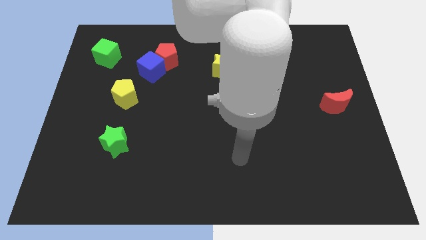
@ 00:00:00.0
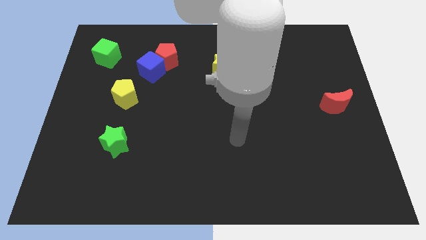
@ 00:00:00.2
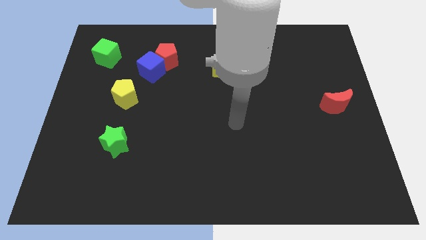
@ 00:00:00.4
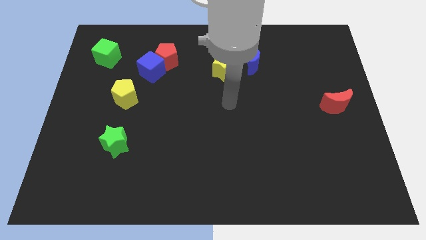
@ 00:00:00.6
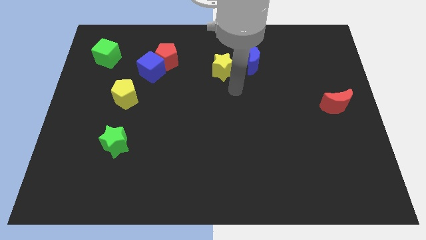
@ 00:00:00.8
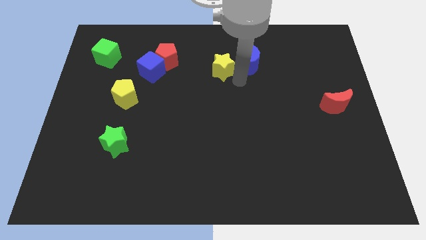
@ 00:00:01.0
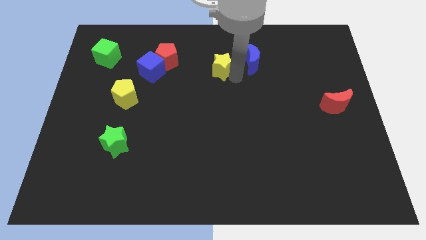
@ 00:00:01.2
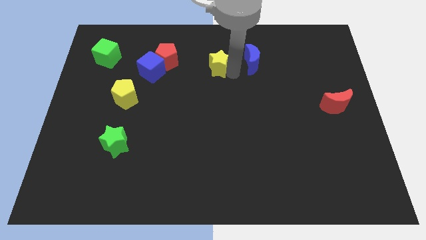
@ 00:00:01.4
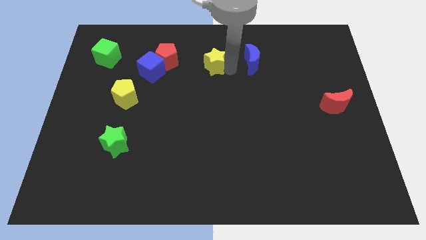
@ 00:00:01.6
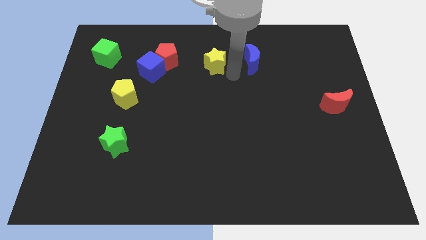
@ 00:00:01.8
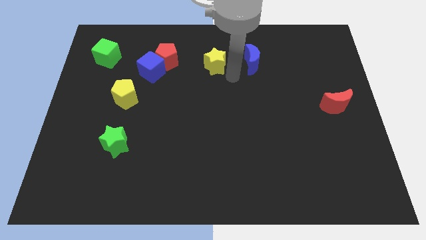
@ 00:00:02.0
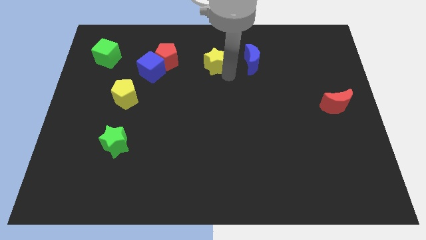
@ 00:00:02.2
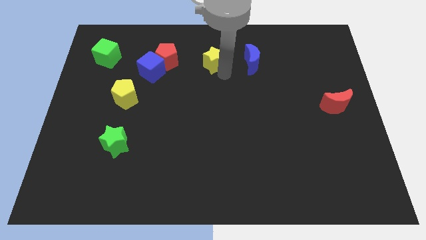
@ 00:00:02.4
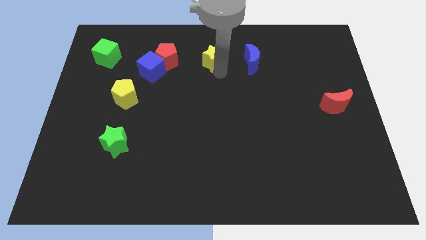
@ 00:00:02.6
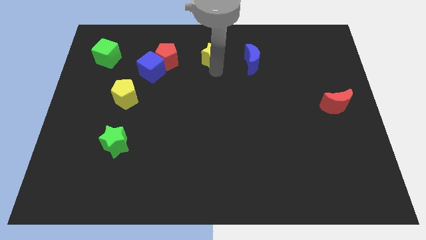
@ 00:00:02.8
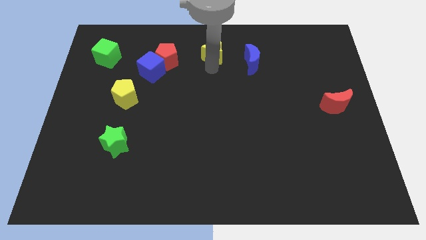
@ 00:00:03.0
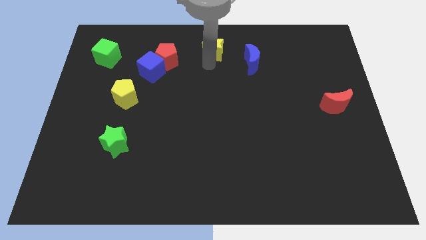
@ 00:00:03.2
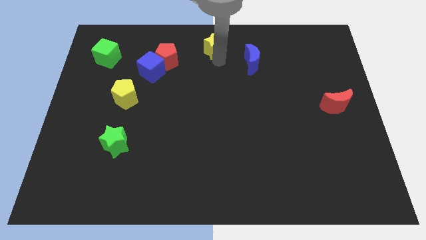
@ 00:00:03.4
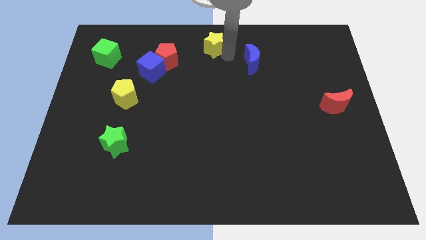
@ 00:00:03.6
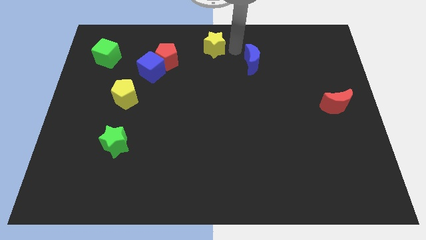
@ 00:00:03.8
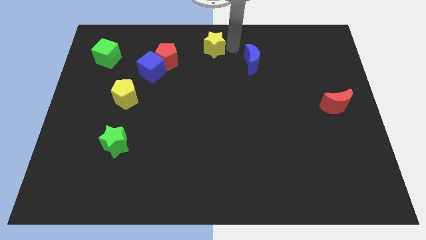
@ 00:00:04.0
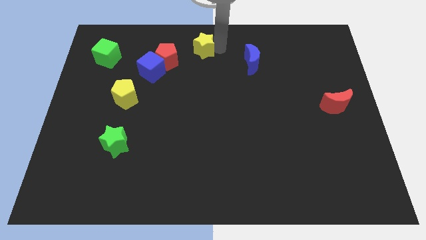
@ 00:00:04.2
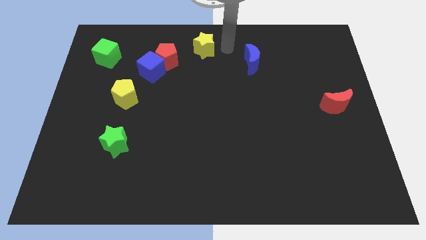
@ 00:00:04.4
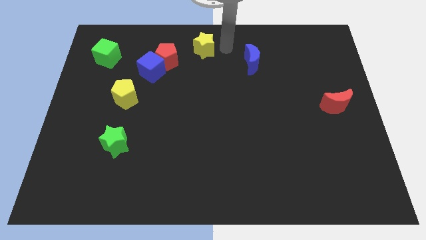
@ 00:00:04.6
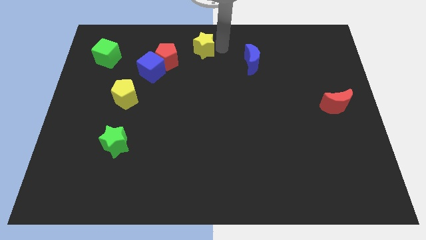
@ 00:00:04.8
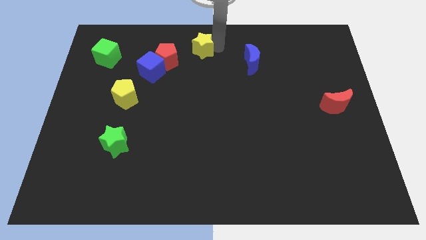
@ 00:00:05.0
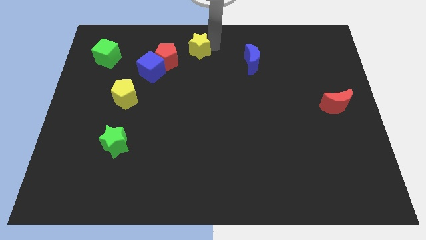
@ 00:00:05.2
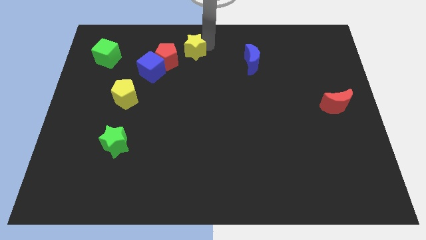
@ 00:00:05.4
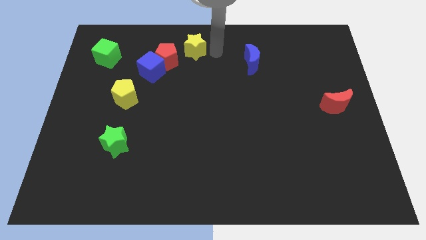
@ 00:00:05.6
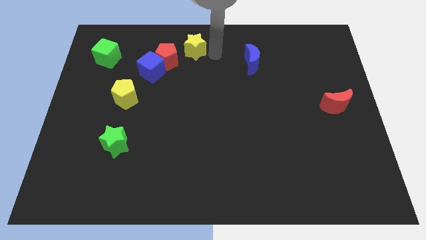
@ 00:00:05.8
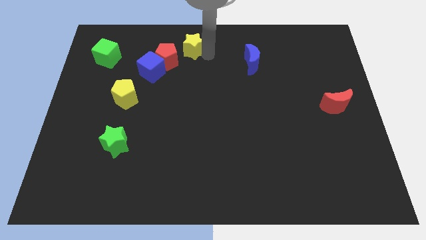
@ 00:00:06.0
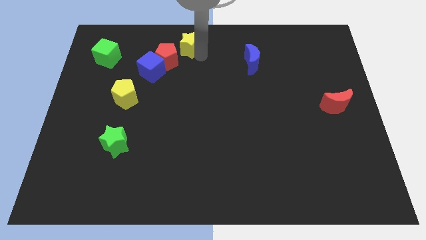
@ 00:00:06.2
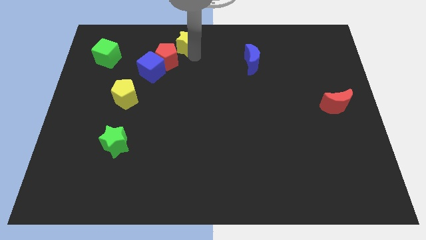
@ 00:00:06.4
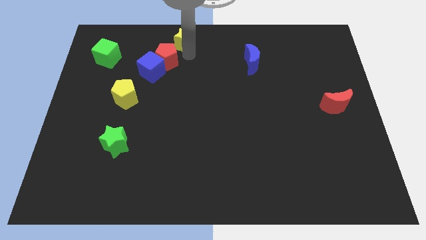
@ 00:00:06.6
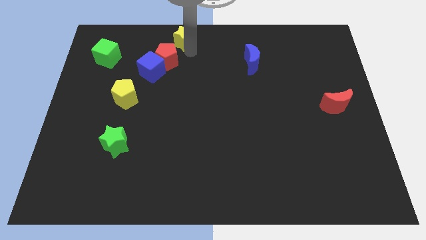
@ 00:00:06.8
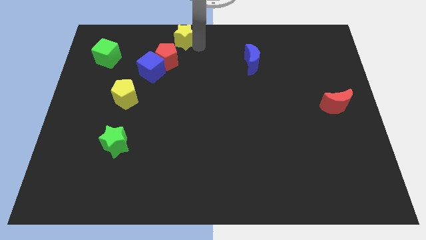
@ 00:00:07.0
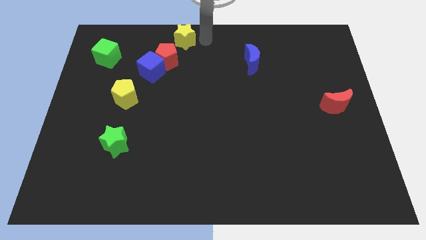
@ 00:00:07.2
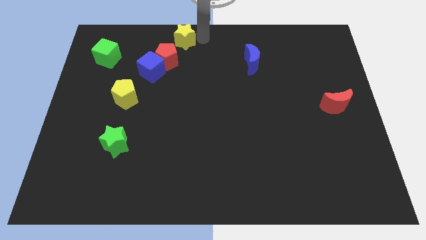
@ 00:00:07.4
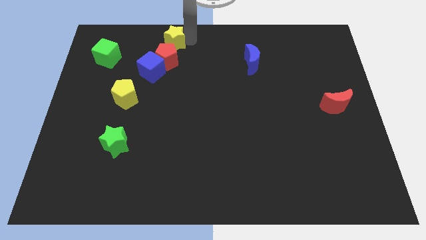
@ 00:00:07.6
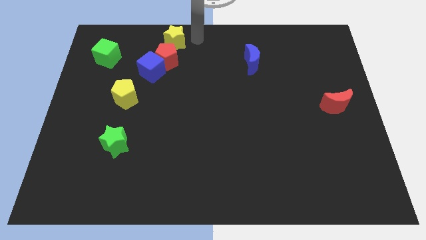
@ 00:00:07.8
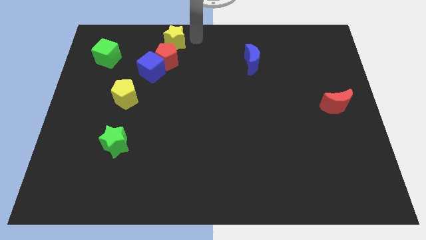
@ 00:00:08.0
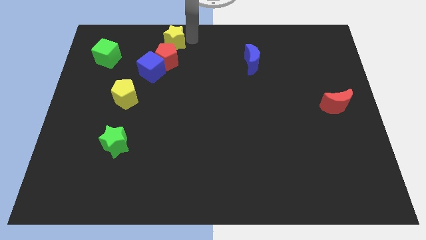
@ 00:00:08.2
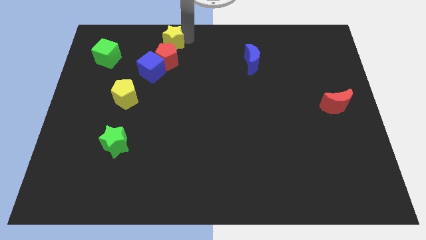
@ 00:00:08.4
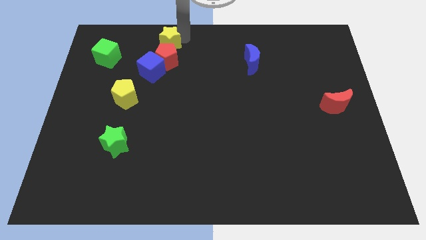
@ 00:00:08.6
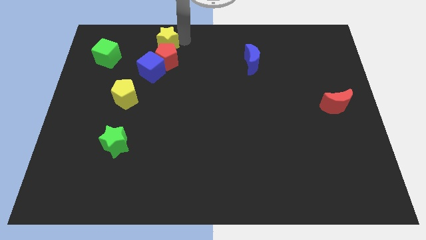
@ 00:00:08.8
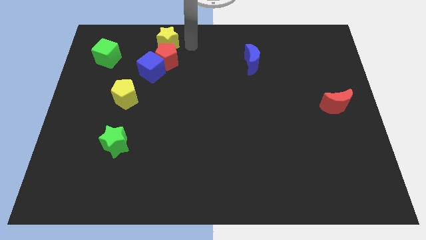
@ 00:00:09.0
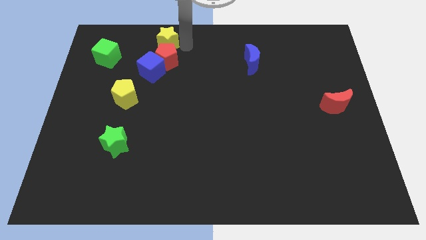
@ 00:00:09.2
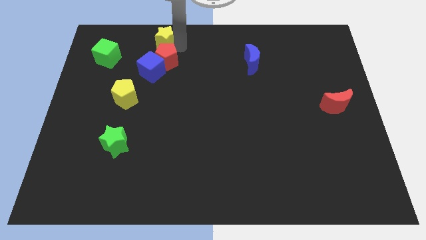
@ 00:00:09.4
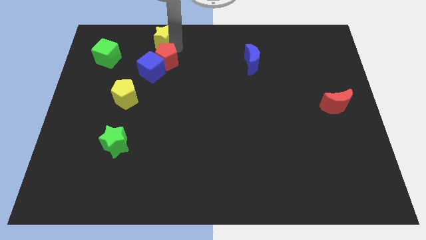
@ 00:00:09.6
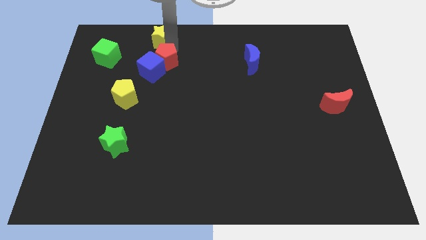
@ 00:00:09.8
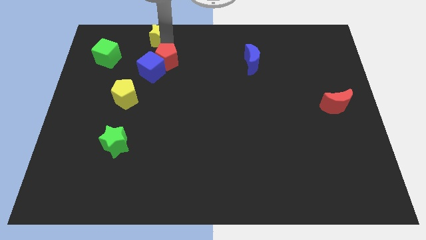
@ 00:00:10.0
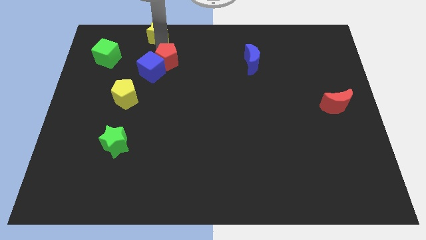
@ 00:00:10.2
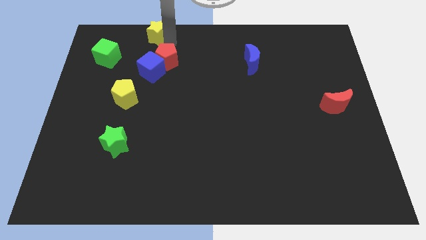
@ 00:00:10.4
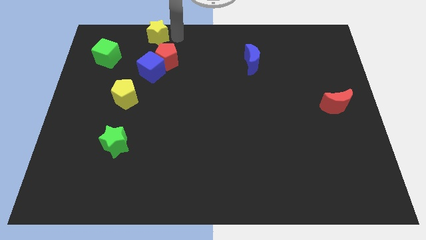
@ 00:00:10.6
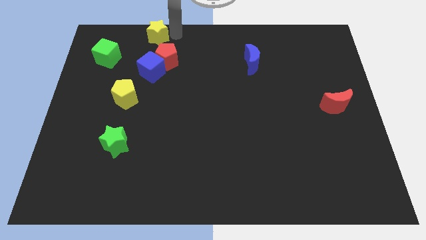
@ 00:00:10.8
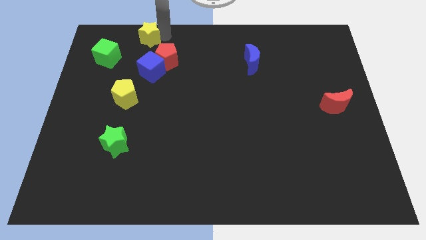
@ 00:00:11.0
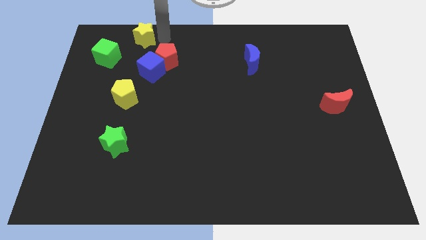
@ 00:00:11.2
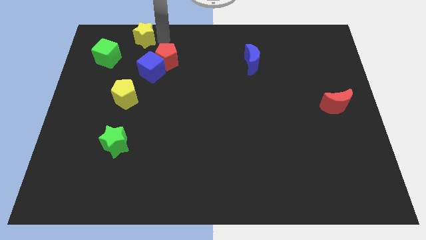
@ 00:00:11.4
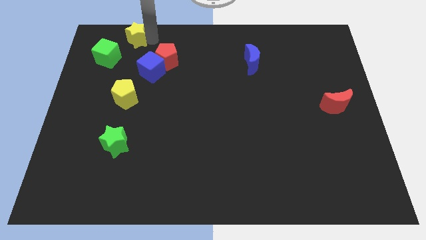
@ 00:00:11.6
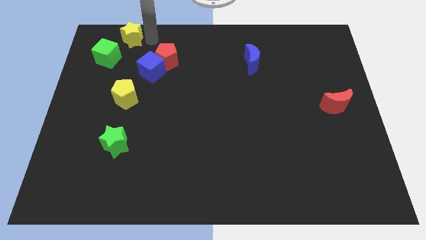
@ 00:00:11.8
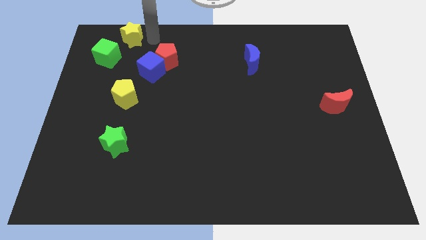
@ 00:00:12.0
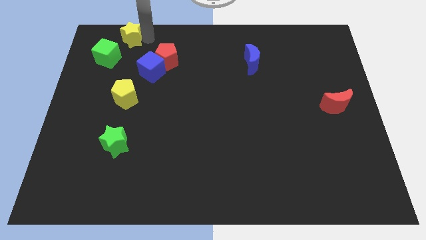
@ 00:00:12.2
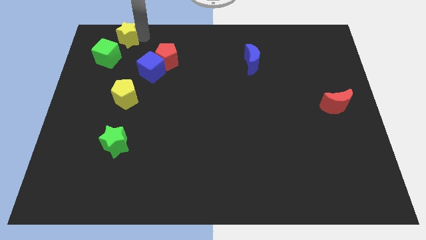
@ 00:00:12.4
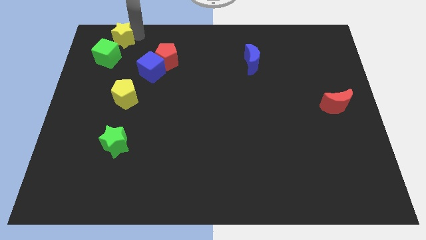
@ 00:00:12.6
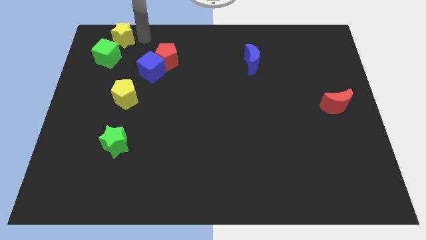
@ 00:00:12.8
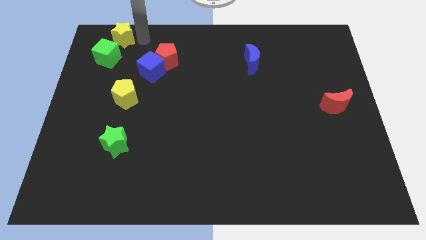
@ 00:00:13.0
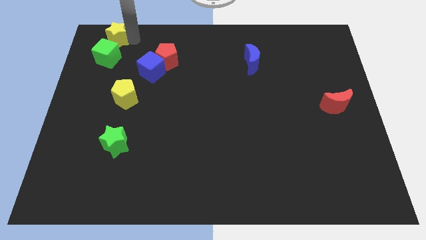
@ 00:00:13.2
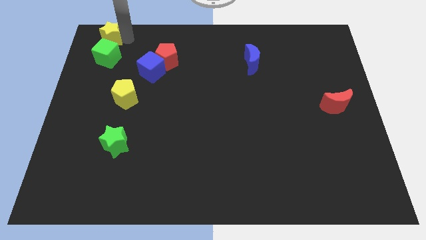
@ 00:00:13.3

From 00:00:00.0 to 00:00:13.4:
push the yellow star to the top left
